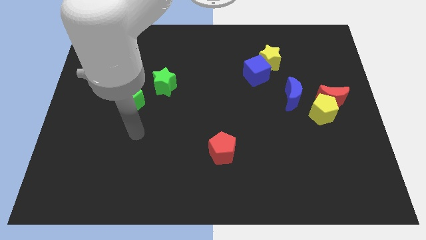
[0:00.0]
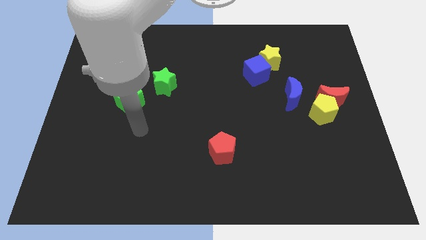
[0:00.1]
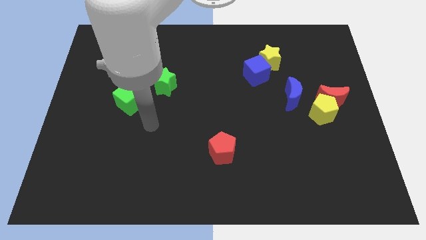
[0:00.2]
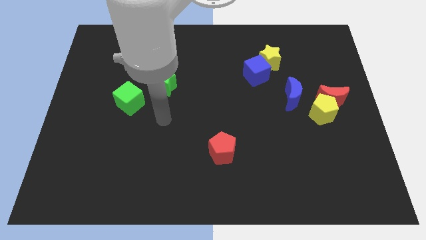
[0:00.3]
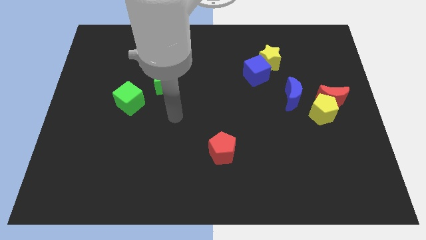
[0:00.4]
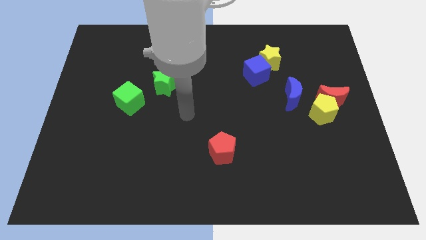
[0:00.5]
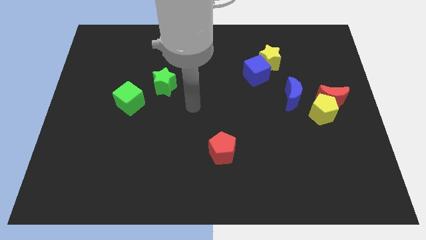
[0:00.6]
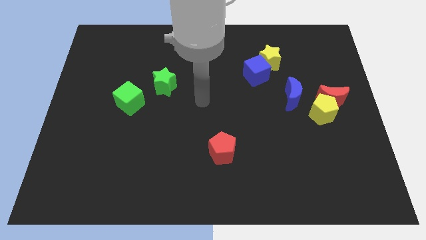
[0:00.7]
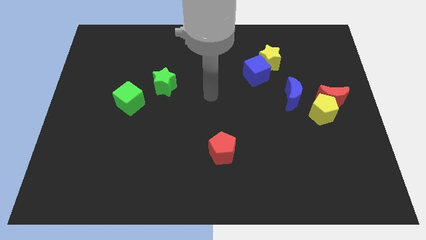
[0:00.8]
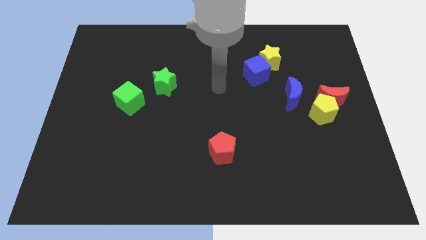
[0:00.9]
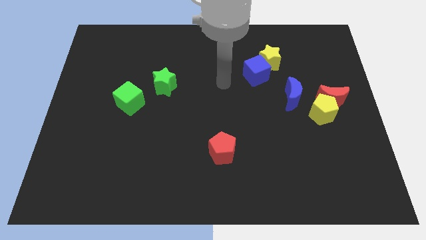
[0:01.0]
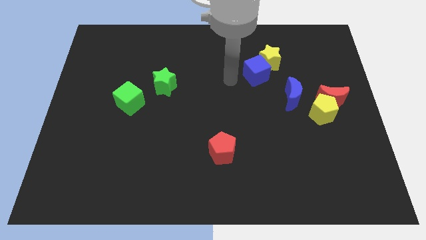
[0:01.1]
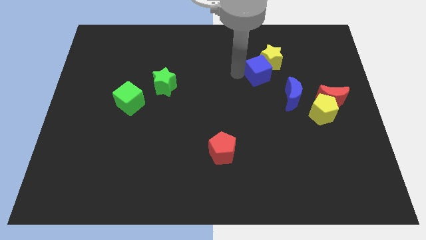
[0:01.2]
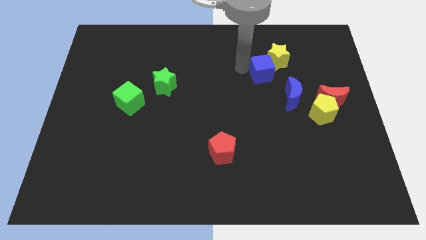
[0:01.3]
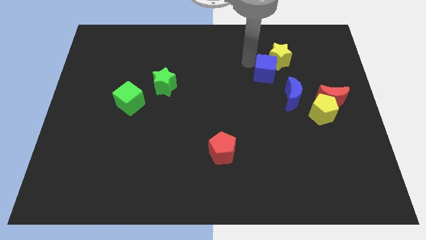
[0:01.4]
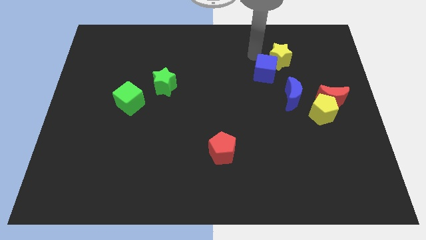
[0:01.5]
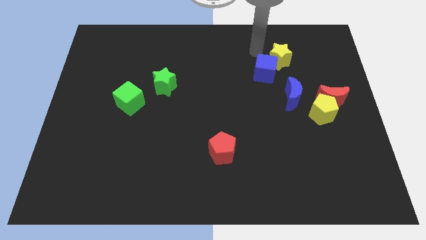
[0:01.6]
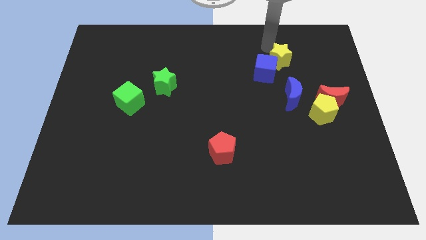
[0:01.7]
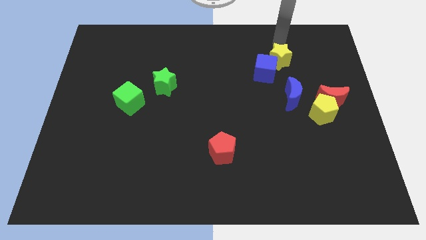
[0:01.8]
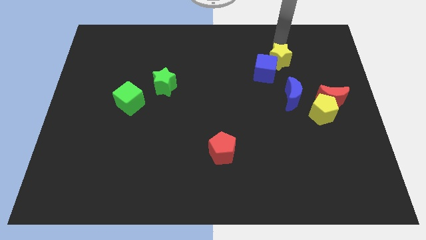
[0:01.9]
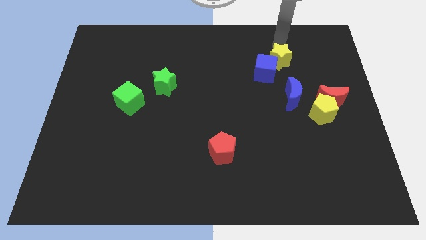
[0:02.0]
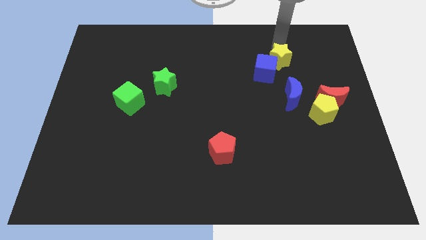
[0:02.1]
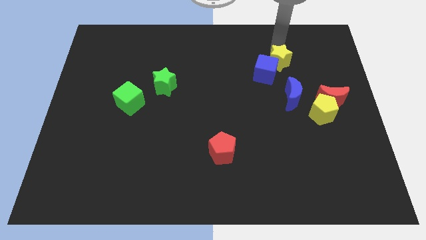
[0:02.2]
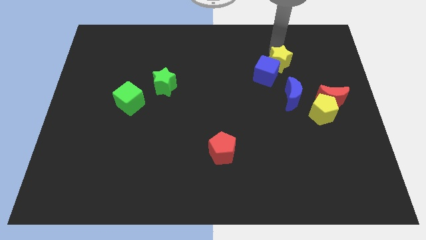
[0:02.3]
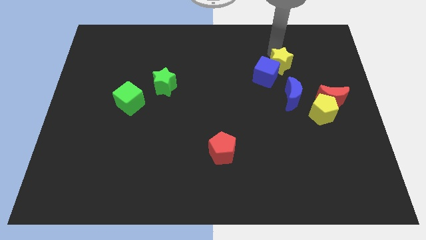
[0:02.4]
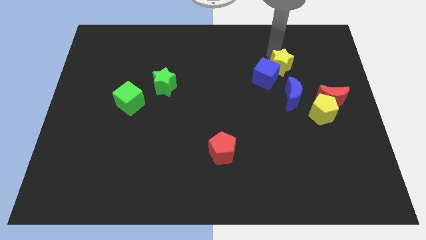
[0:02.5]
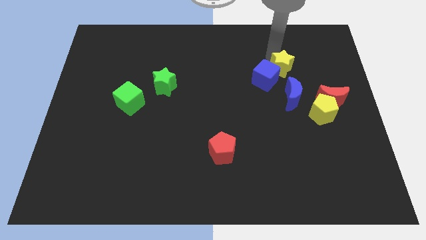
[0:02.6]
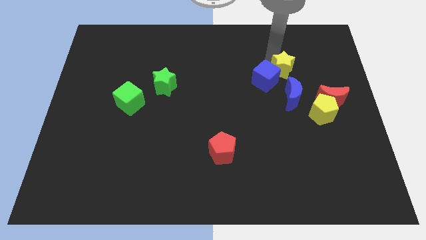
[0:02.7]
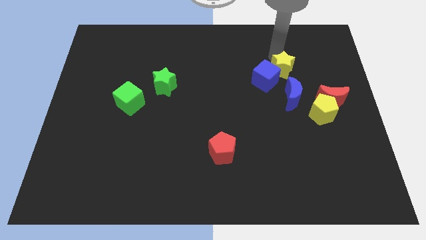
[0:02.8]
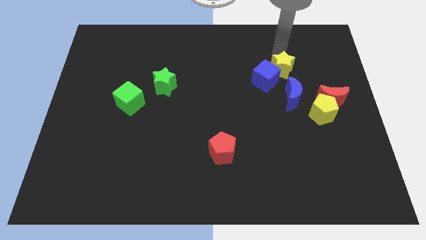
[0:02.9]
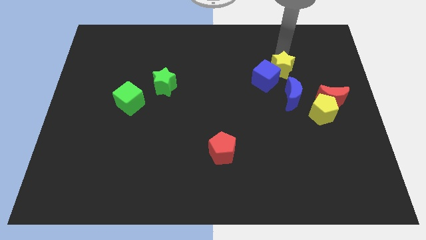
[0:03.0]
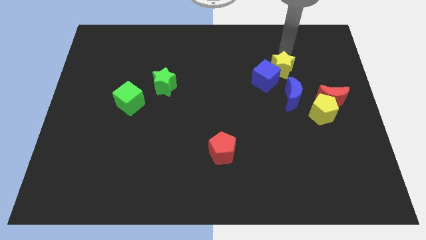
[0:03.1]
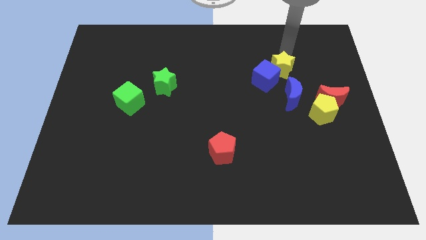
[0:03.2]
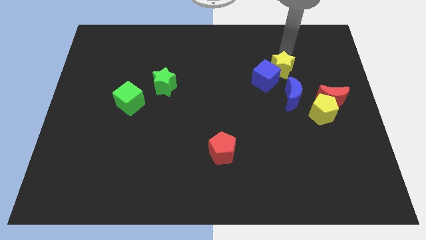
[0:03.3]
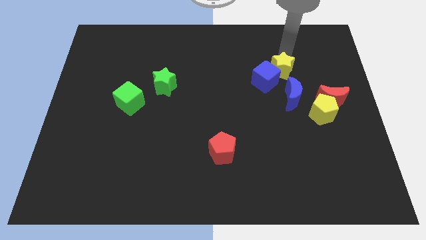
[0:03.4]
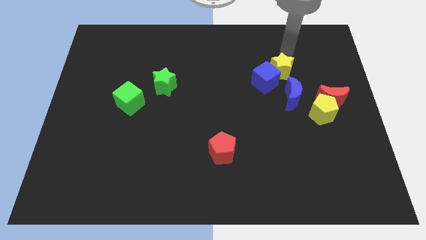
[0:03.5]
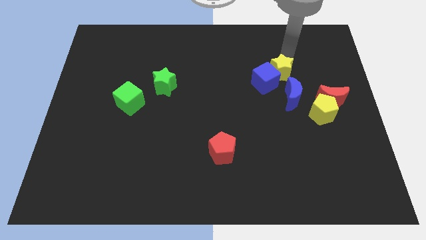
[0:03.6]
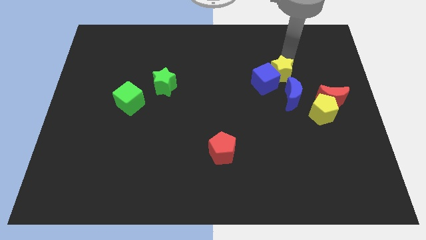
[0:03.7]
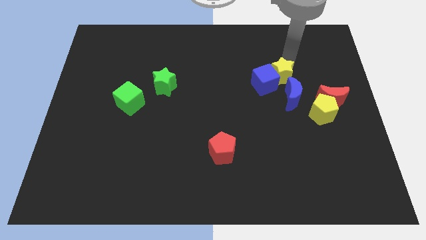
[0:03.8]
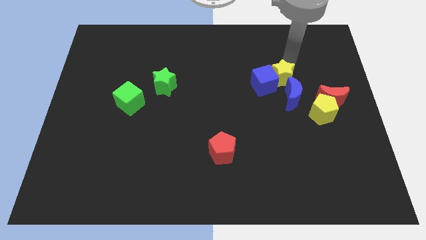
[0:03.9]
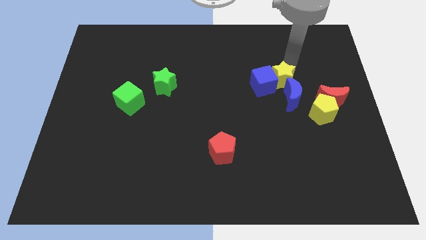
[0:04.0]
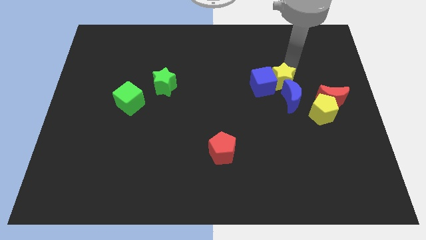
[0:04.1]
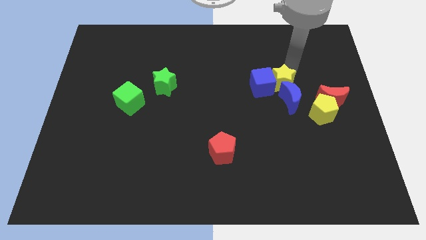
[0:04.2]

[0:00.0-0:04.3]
push the yellow star downwards a bit

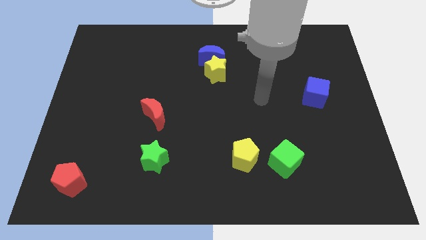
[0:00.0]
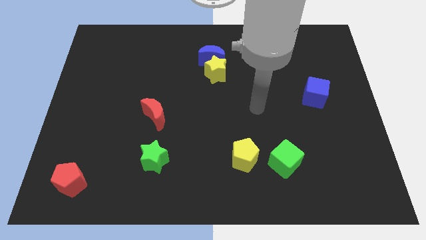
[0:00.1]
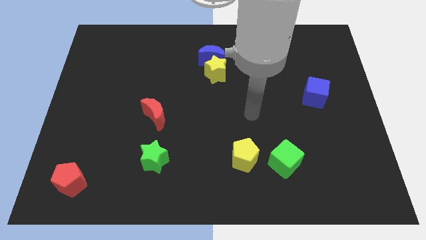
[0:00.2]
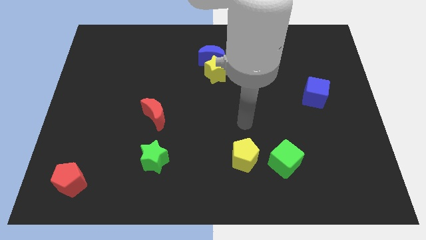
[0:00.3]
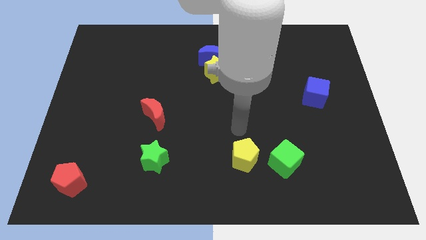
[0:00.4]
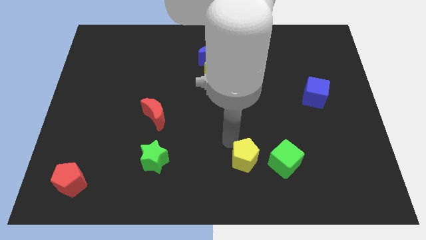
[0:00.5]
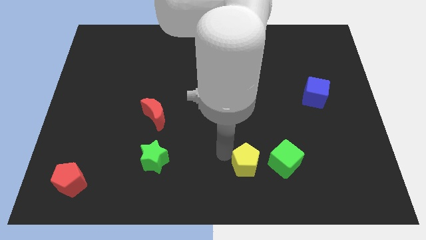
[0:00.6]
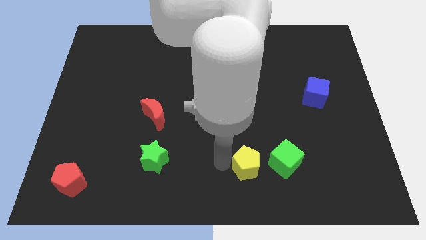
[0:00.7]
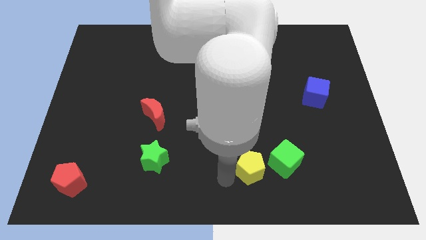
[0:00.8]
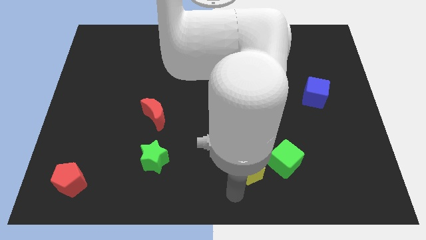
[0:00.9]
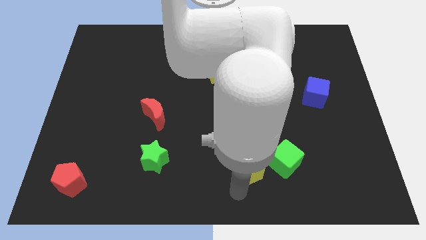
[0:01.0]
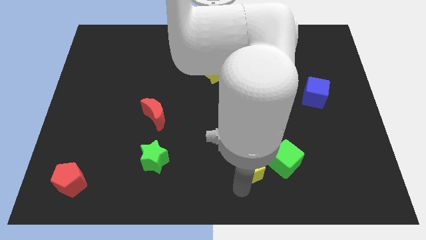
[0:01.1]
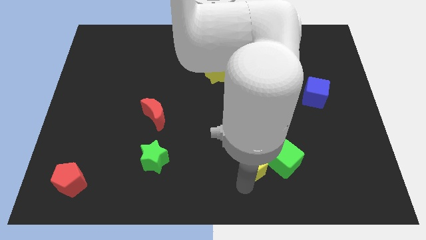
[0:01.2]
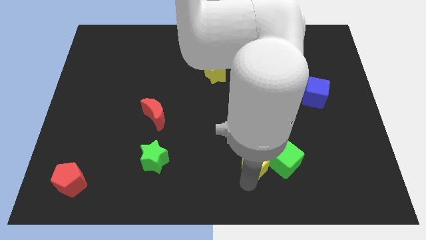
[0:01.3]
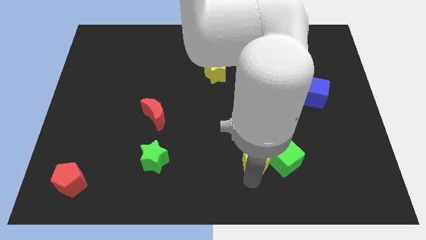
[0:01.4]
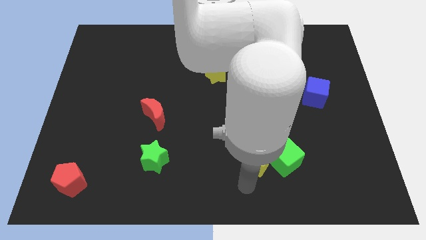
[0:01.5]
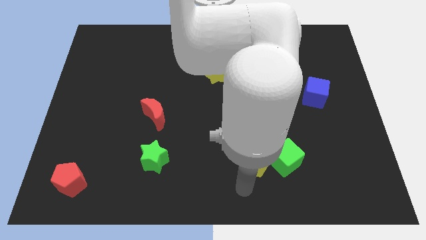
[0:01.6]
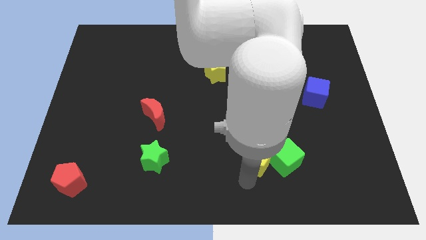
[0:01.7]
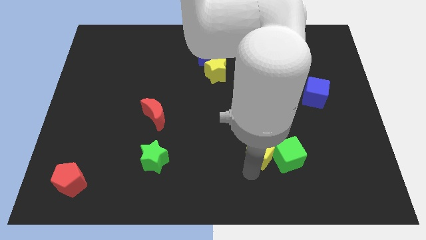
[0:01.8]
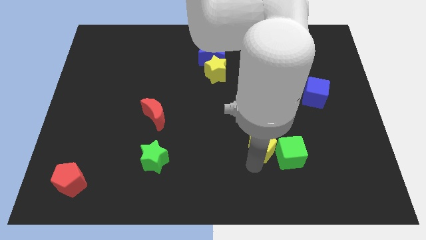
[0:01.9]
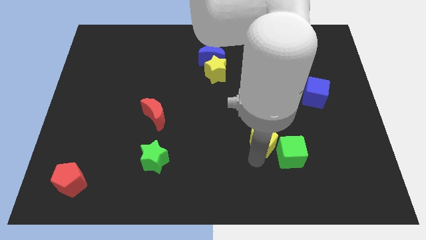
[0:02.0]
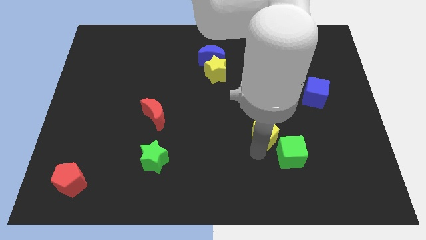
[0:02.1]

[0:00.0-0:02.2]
slightly slide the yellow pentagon up and to the right

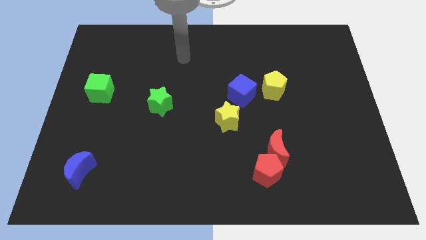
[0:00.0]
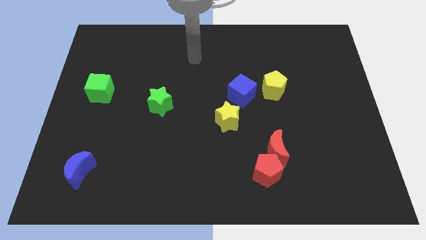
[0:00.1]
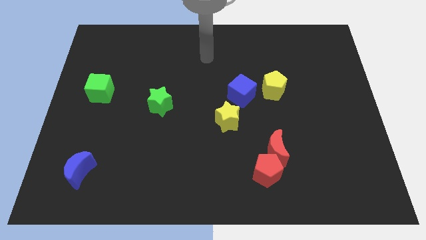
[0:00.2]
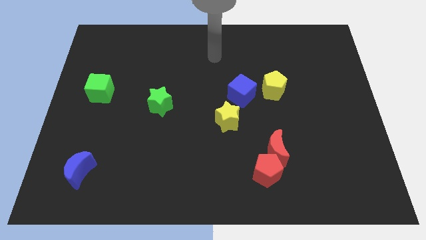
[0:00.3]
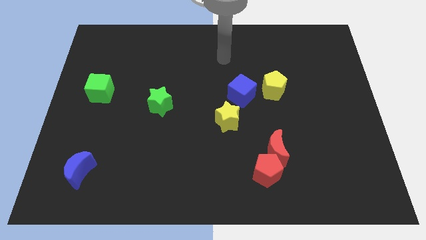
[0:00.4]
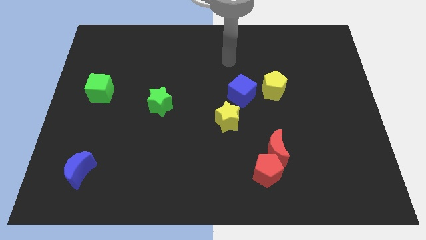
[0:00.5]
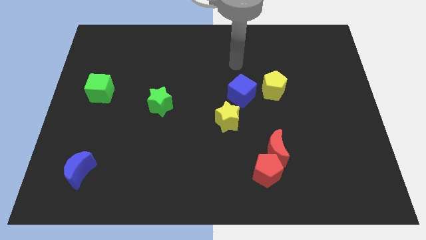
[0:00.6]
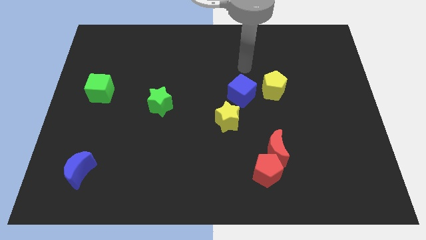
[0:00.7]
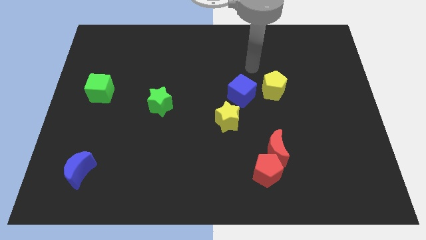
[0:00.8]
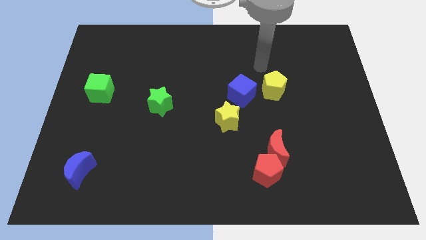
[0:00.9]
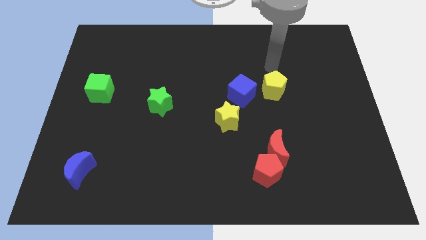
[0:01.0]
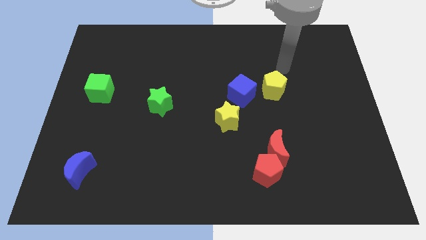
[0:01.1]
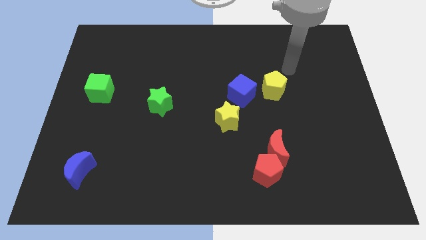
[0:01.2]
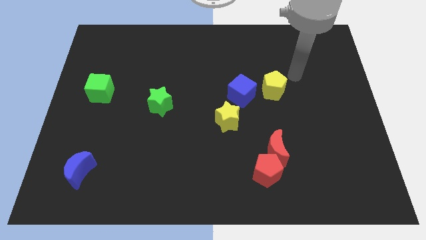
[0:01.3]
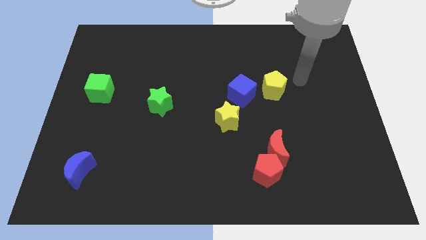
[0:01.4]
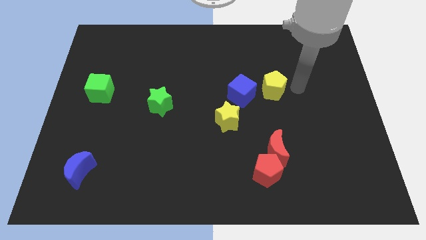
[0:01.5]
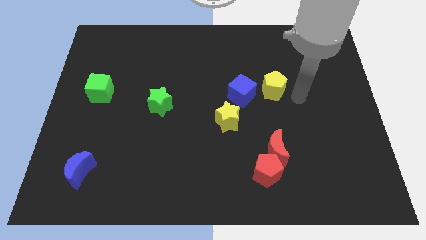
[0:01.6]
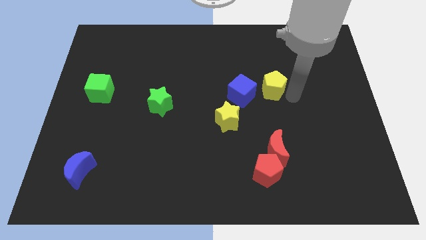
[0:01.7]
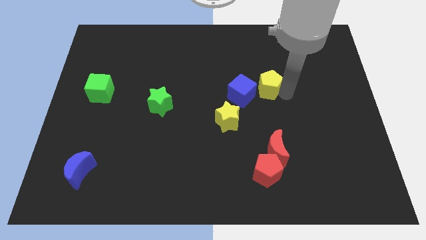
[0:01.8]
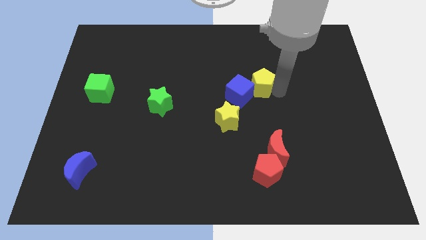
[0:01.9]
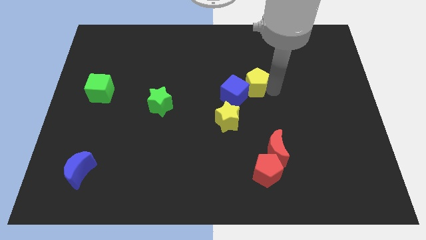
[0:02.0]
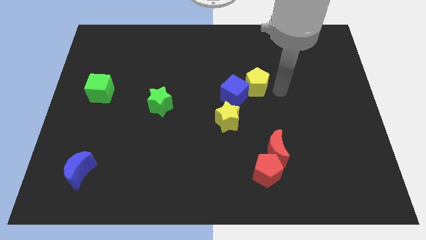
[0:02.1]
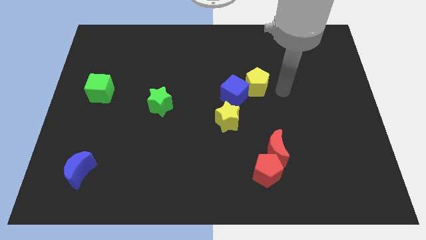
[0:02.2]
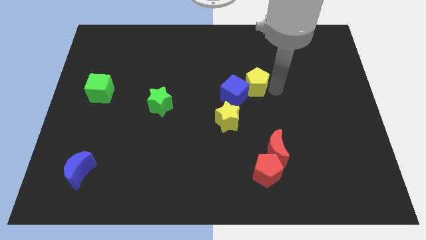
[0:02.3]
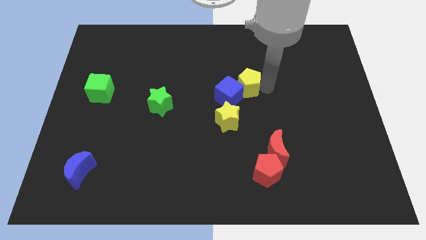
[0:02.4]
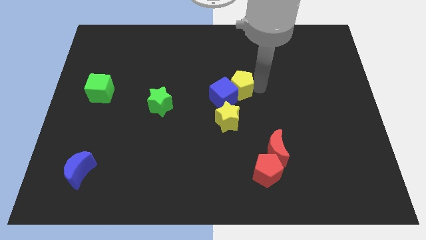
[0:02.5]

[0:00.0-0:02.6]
move the yellow pentagon a little bit to the left
